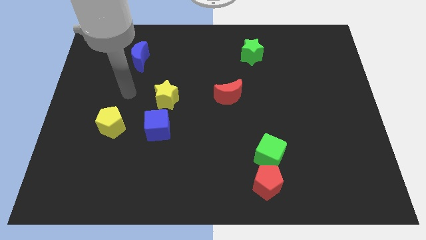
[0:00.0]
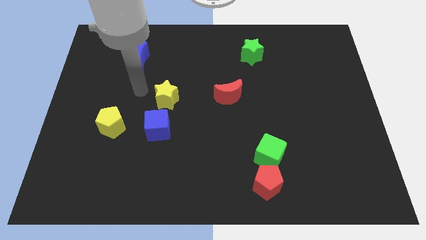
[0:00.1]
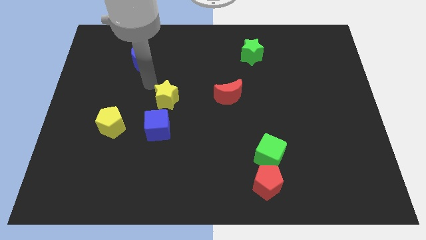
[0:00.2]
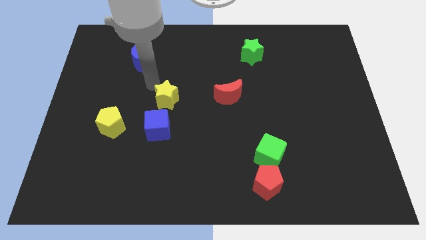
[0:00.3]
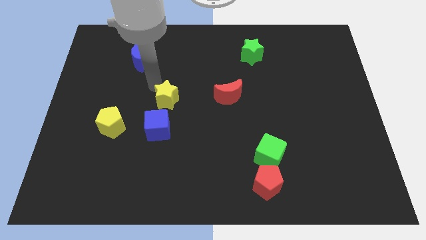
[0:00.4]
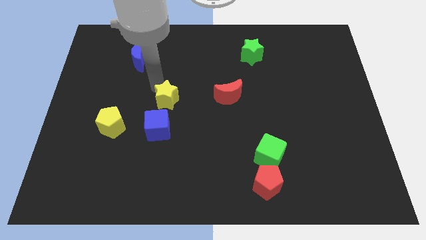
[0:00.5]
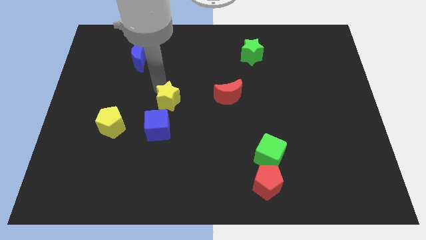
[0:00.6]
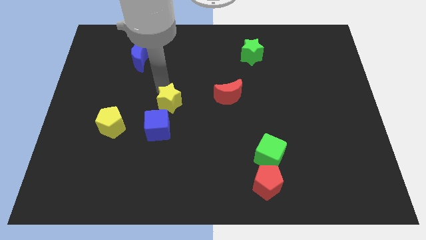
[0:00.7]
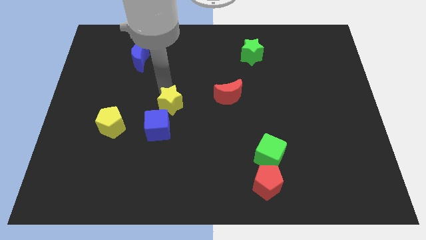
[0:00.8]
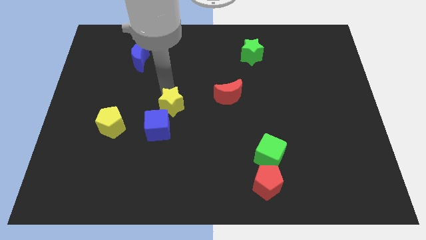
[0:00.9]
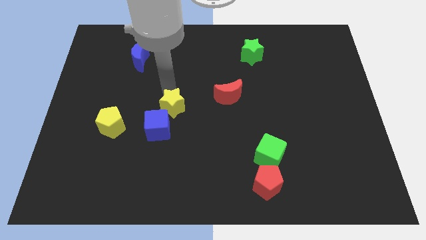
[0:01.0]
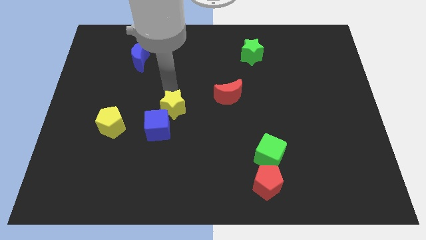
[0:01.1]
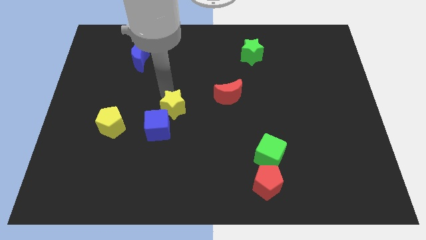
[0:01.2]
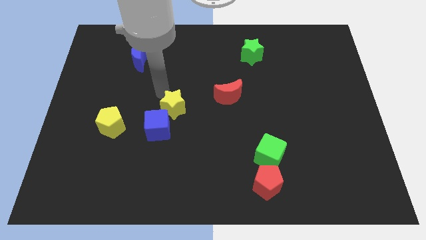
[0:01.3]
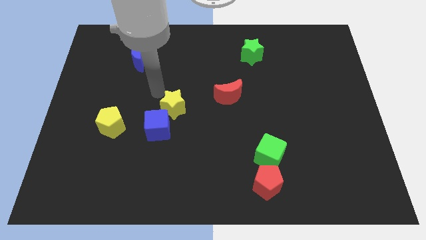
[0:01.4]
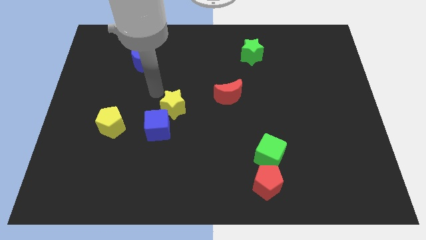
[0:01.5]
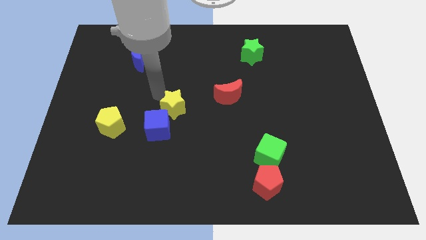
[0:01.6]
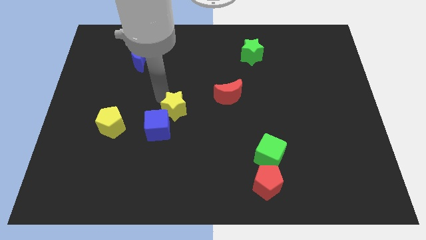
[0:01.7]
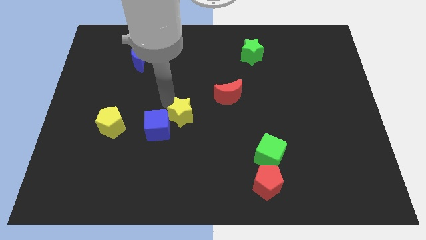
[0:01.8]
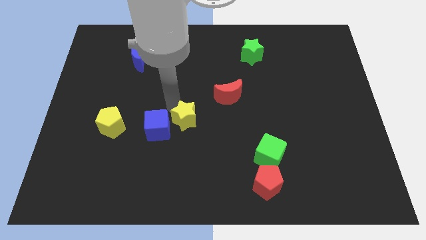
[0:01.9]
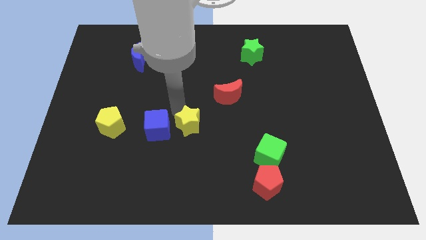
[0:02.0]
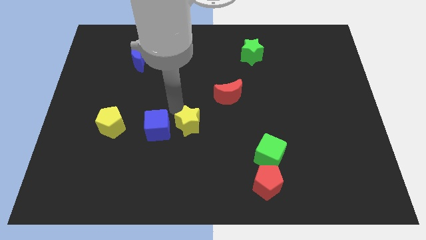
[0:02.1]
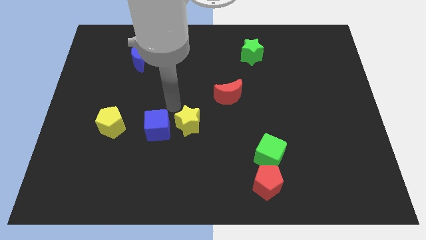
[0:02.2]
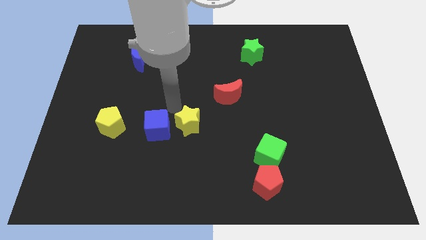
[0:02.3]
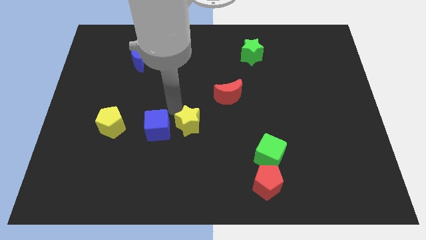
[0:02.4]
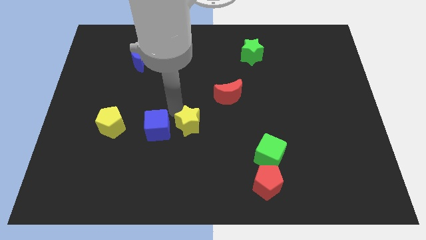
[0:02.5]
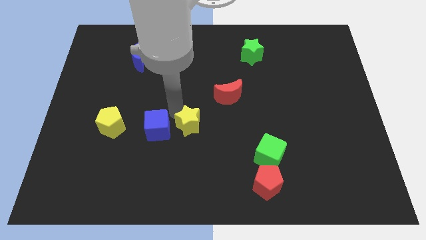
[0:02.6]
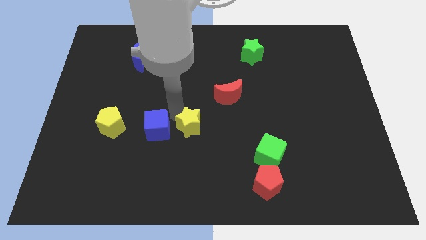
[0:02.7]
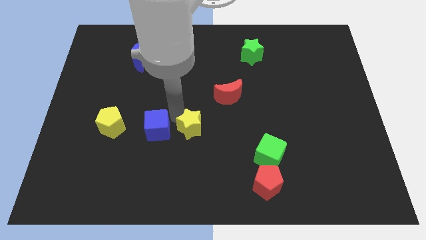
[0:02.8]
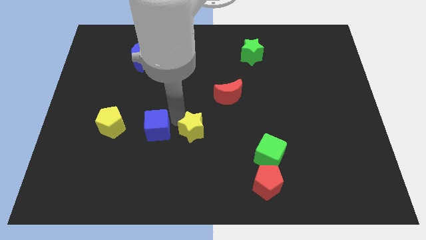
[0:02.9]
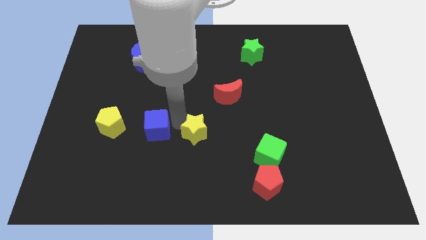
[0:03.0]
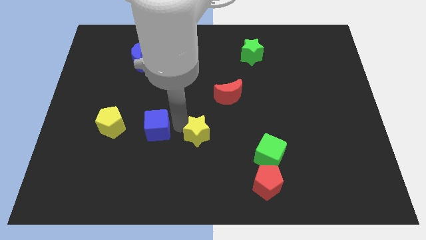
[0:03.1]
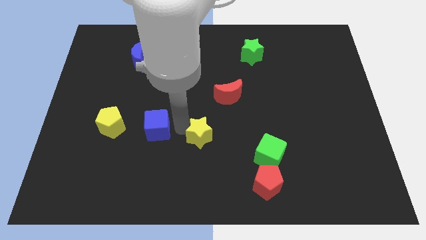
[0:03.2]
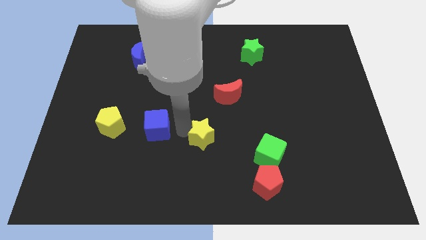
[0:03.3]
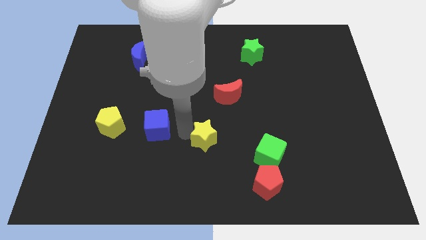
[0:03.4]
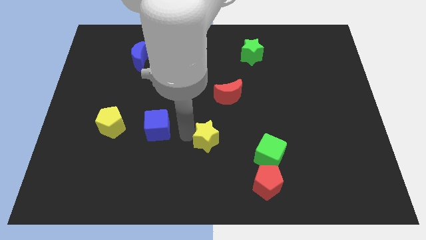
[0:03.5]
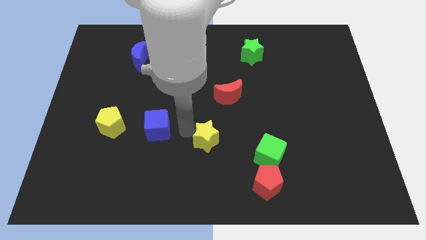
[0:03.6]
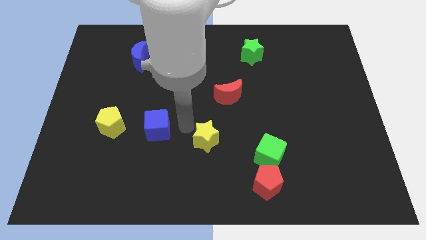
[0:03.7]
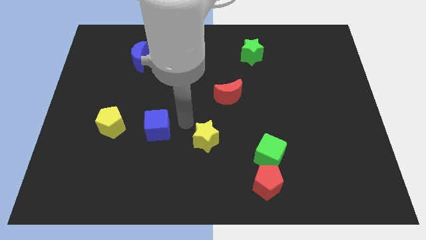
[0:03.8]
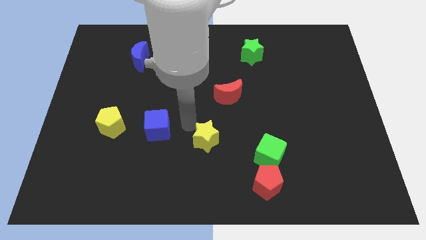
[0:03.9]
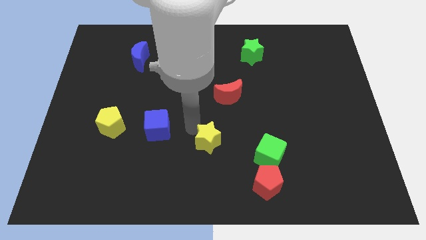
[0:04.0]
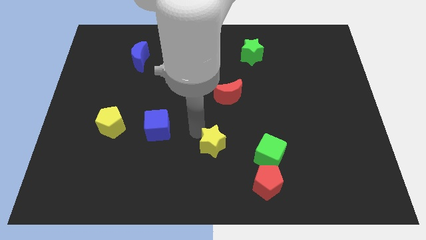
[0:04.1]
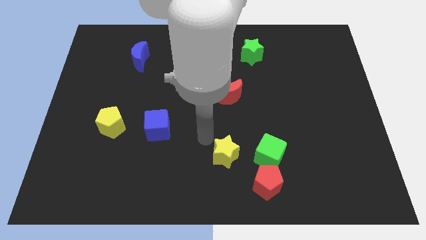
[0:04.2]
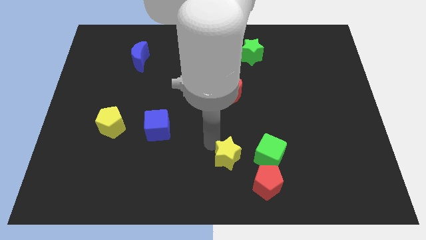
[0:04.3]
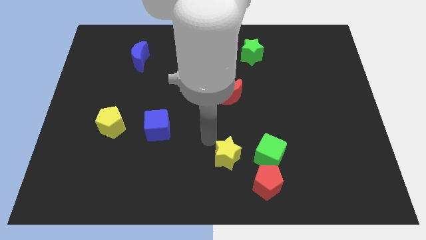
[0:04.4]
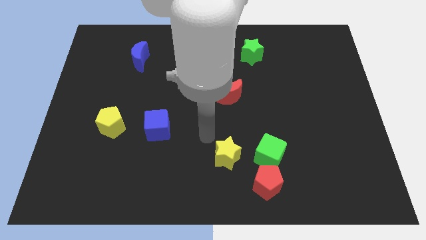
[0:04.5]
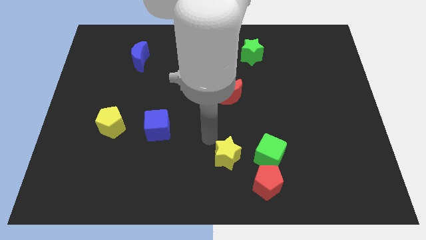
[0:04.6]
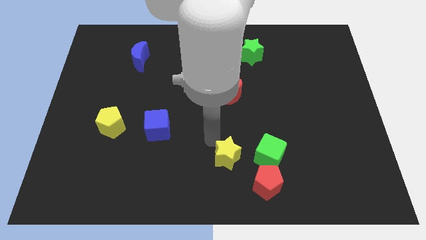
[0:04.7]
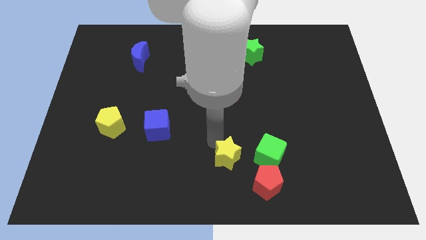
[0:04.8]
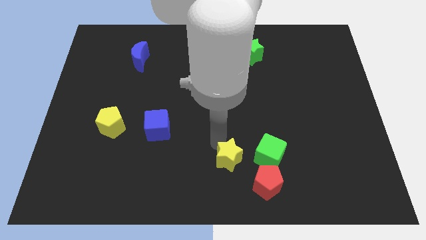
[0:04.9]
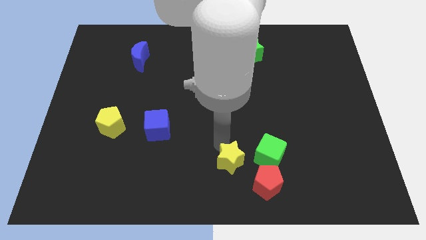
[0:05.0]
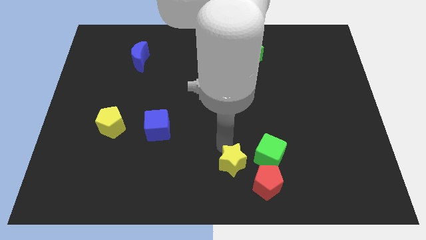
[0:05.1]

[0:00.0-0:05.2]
put the yellow star to the bottom left side of the green cube

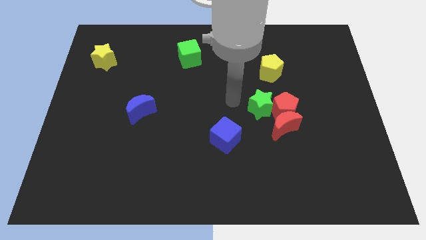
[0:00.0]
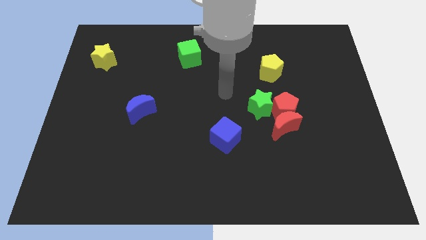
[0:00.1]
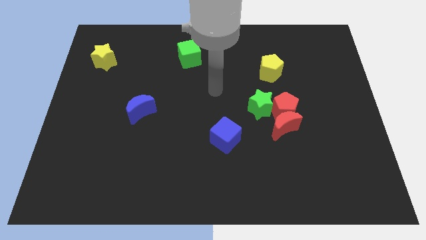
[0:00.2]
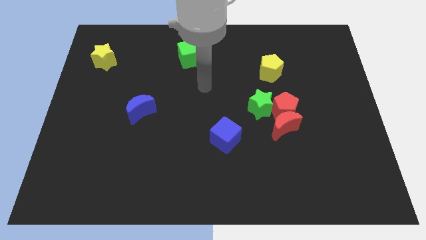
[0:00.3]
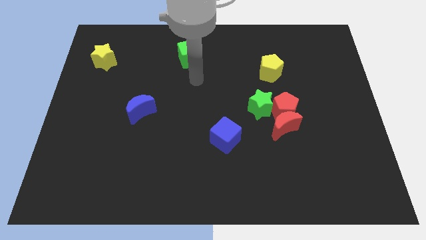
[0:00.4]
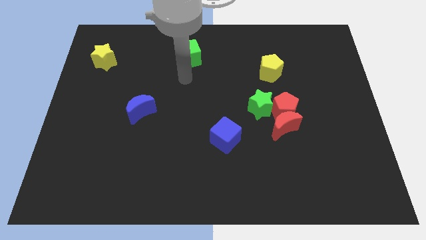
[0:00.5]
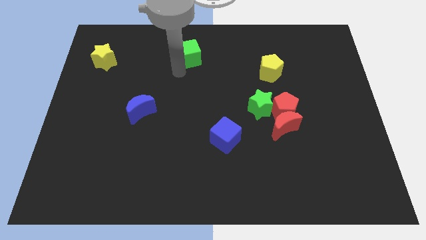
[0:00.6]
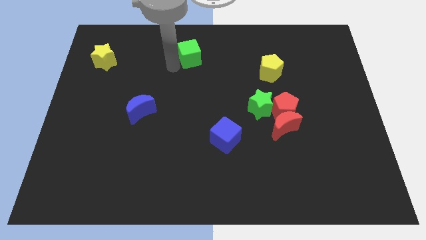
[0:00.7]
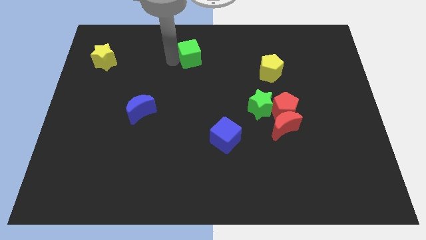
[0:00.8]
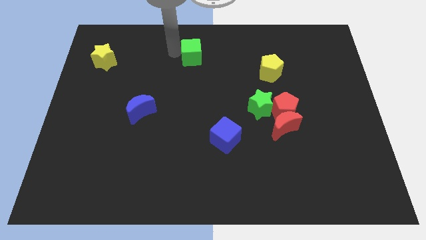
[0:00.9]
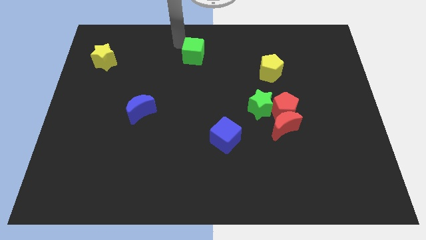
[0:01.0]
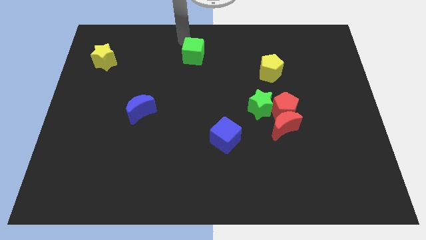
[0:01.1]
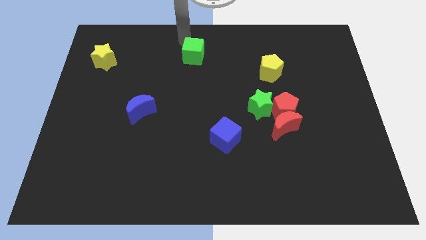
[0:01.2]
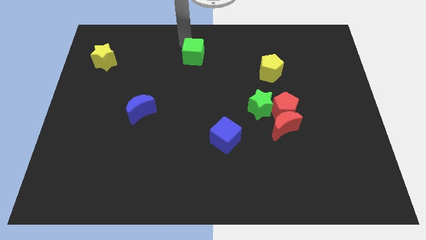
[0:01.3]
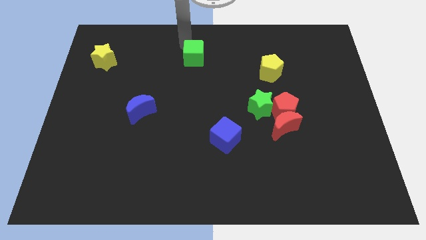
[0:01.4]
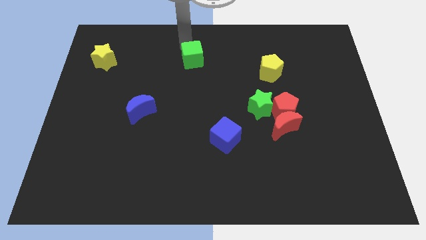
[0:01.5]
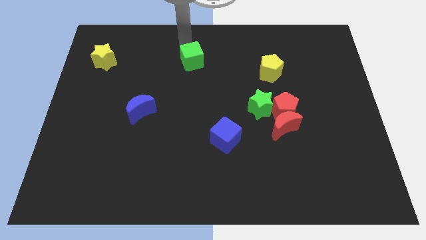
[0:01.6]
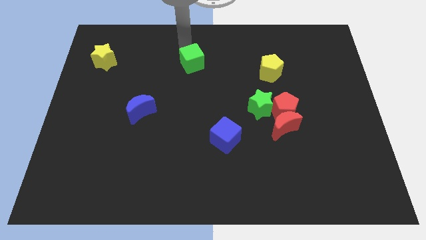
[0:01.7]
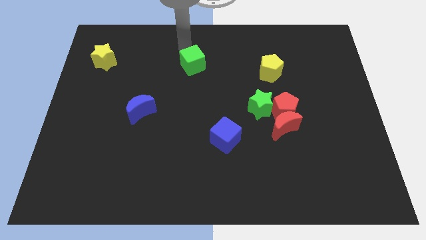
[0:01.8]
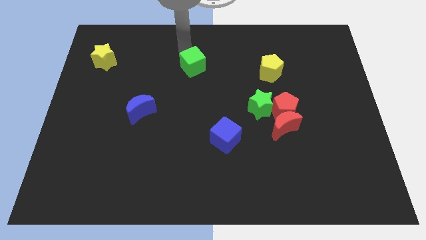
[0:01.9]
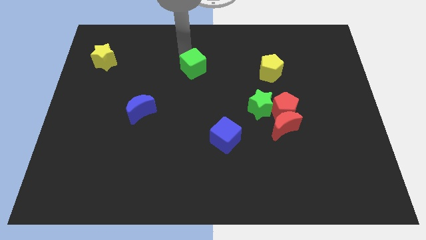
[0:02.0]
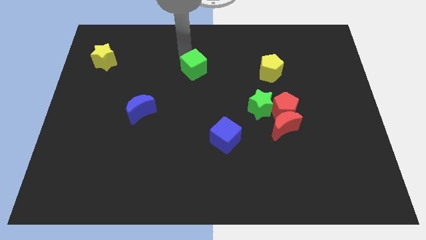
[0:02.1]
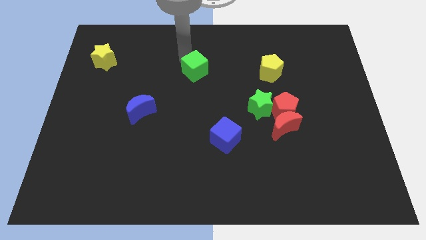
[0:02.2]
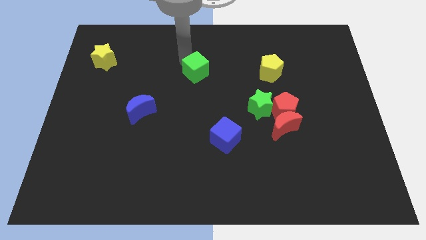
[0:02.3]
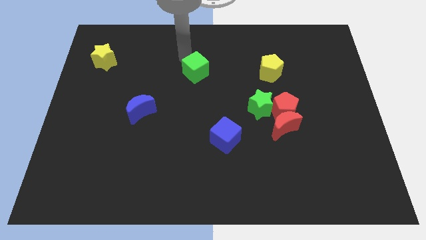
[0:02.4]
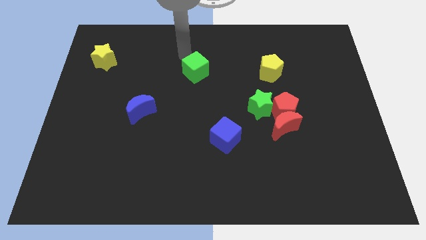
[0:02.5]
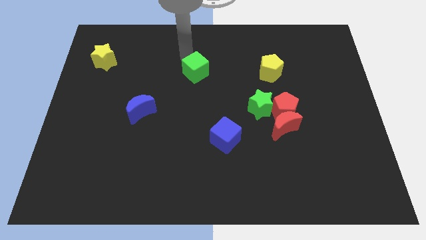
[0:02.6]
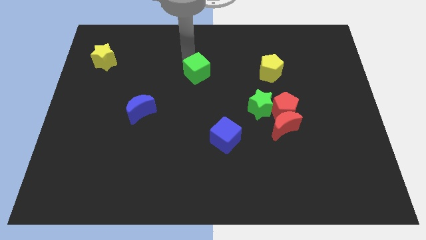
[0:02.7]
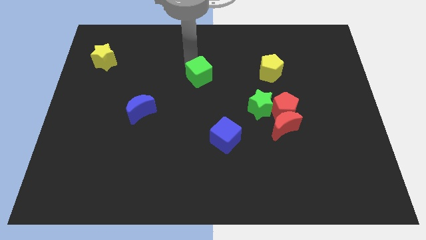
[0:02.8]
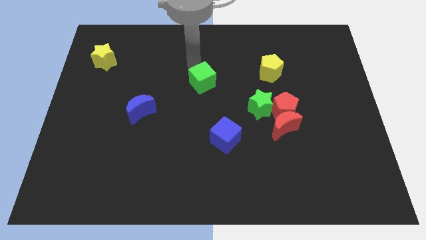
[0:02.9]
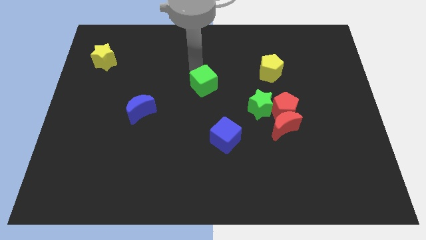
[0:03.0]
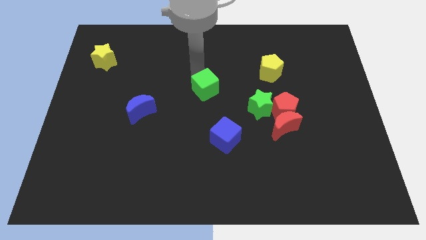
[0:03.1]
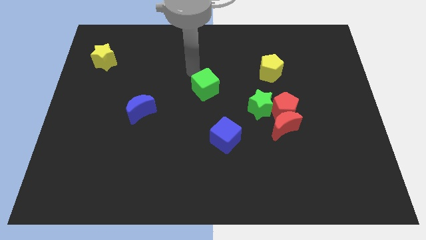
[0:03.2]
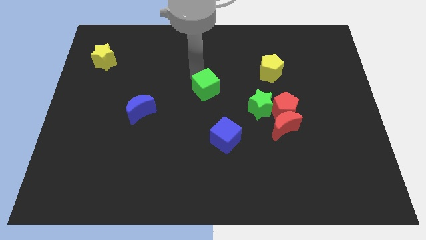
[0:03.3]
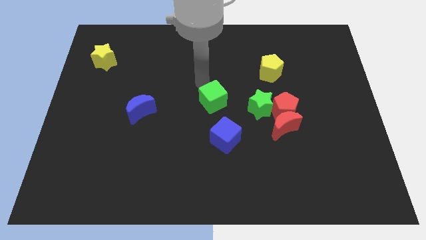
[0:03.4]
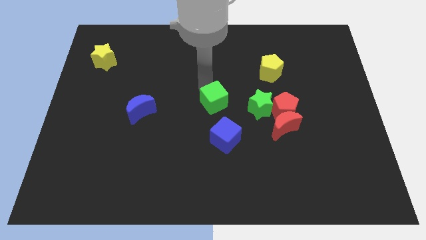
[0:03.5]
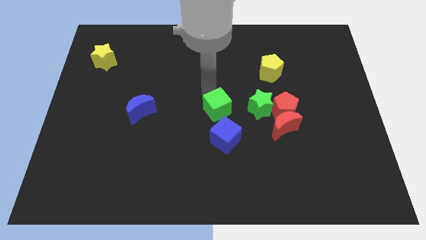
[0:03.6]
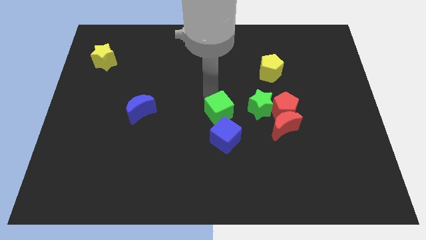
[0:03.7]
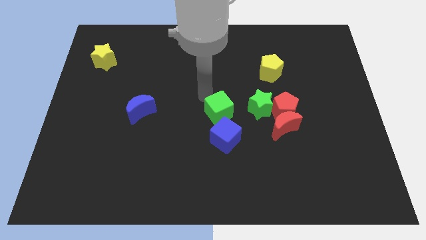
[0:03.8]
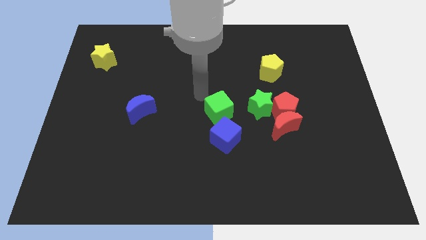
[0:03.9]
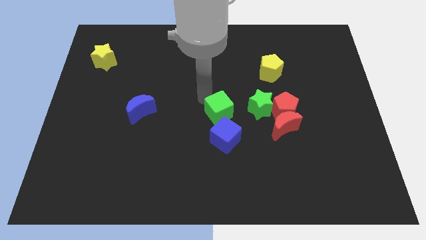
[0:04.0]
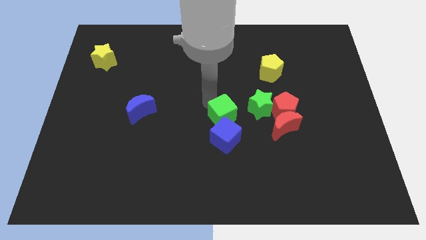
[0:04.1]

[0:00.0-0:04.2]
slide the green cube just left of the red moon
